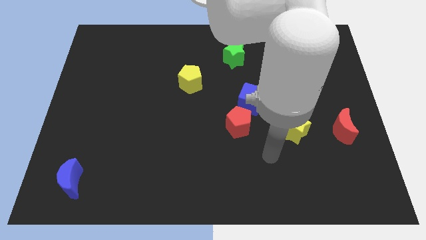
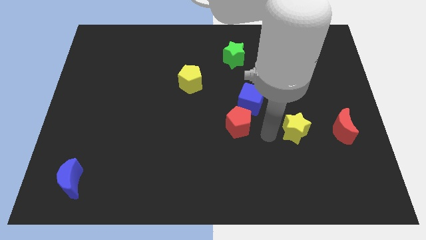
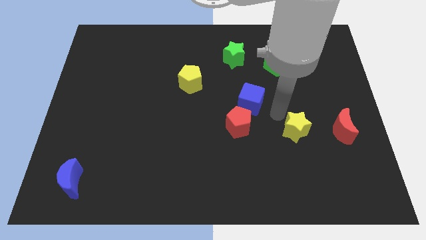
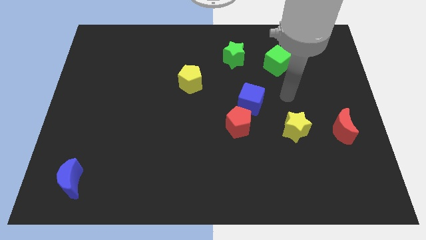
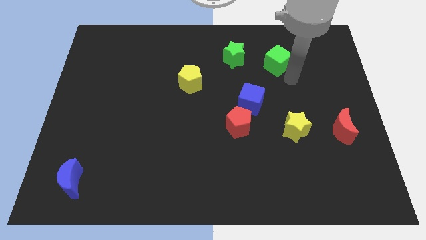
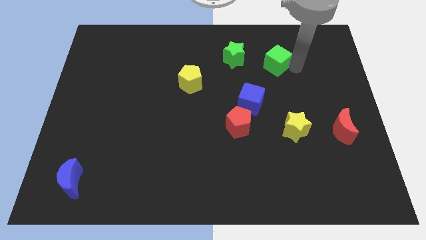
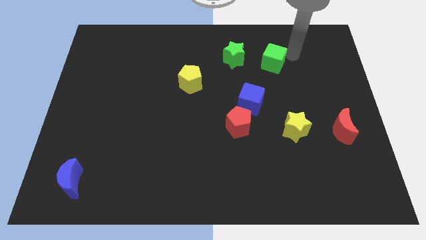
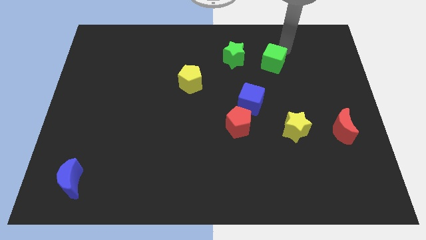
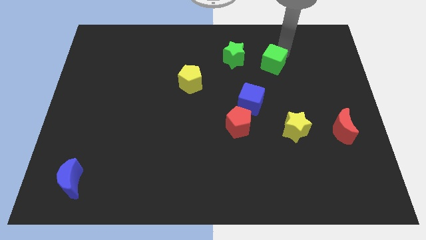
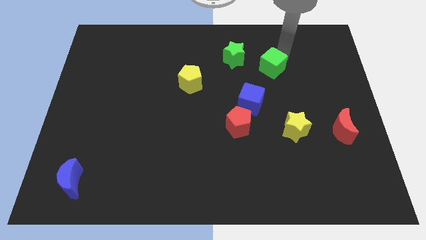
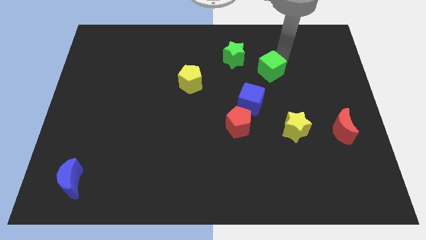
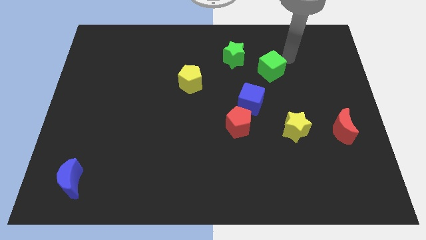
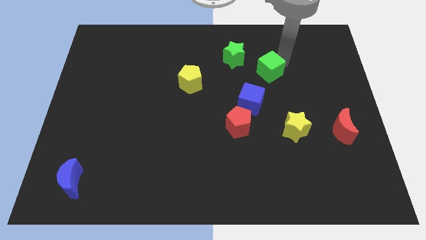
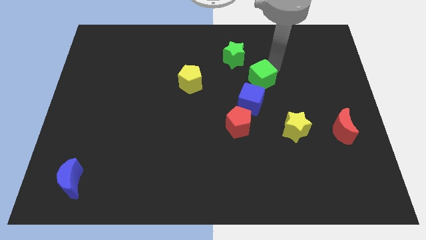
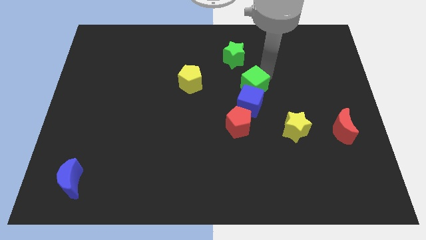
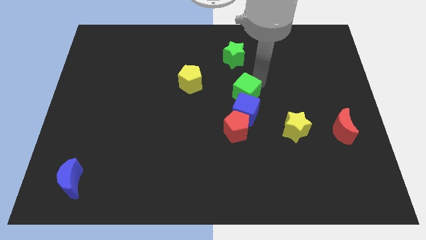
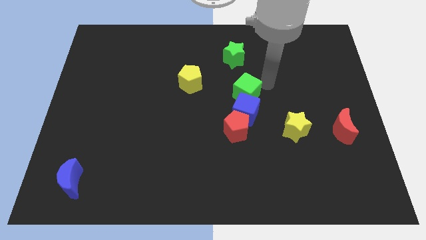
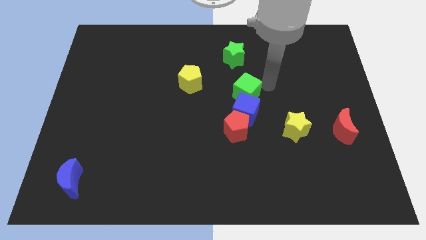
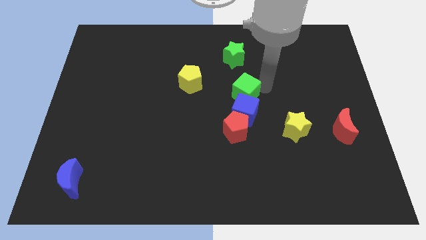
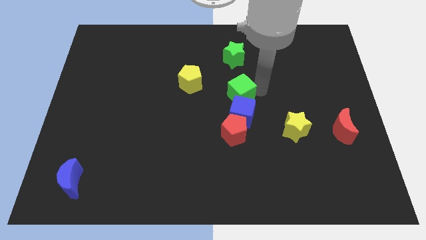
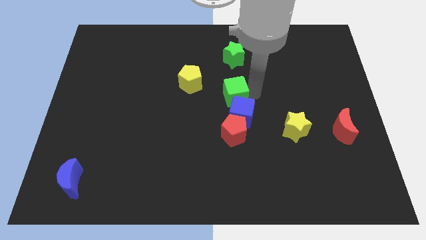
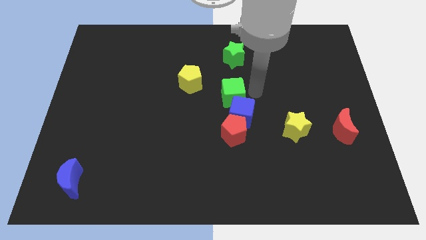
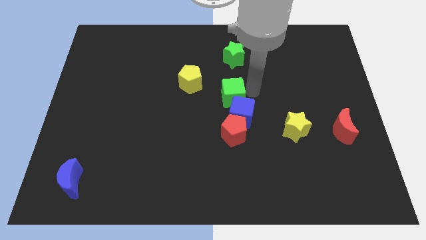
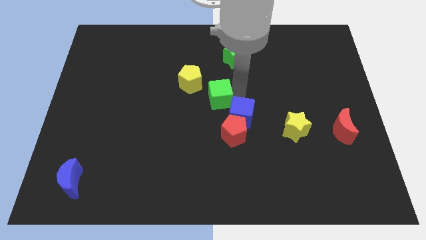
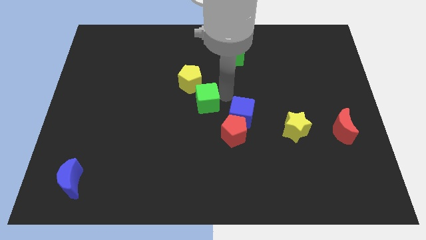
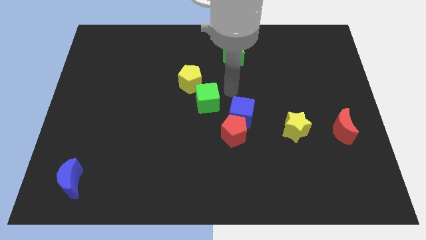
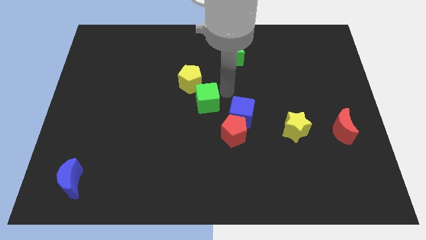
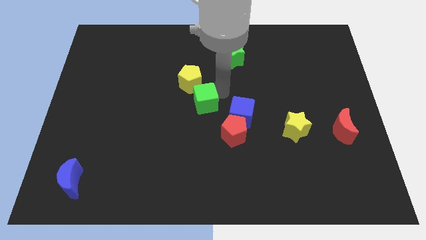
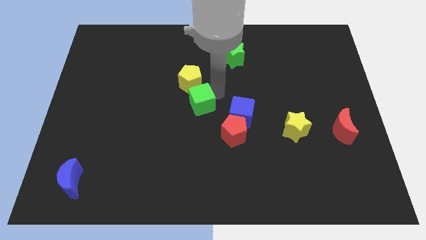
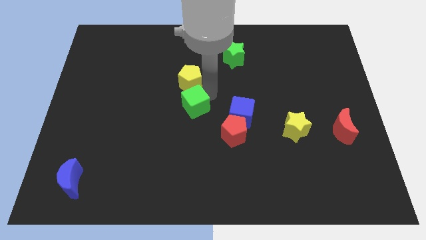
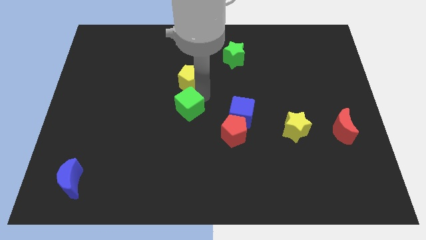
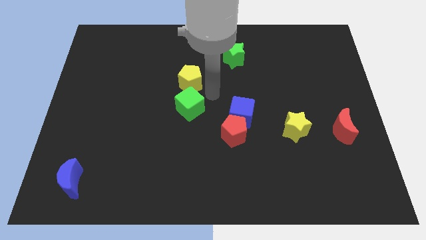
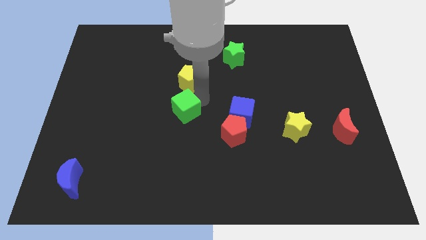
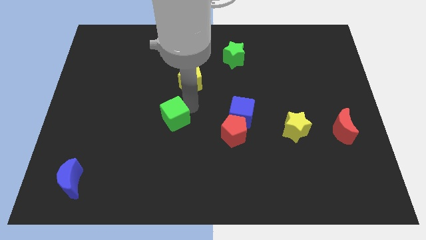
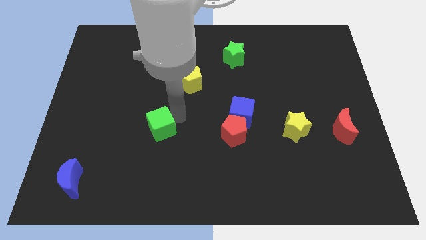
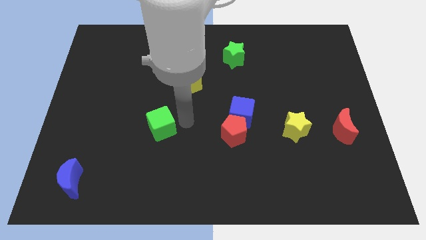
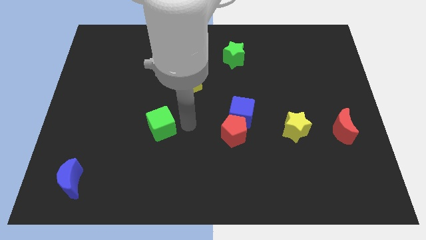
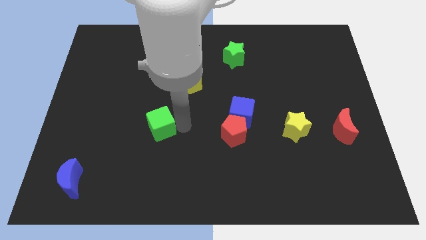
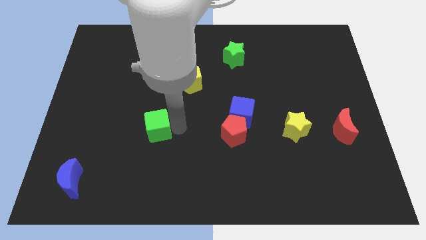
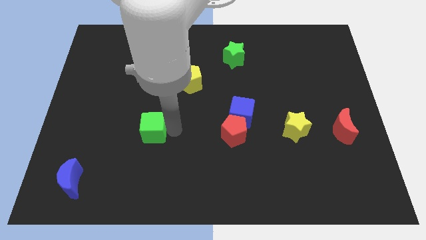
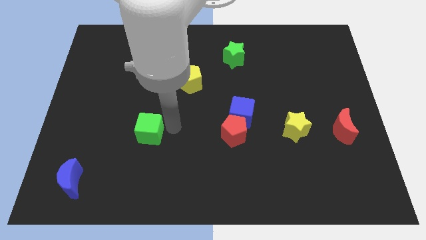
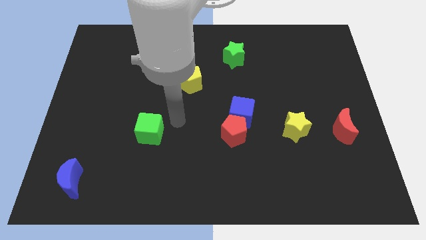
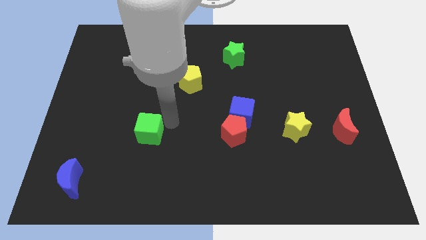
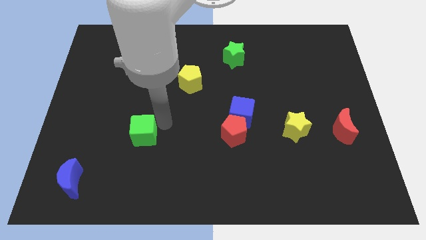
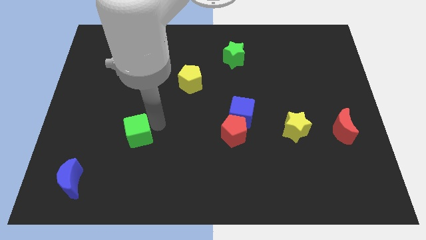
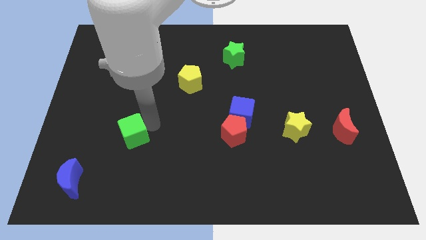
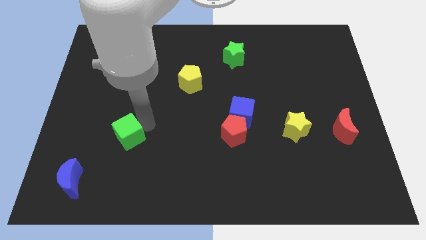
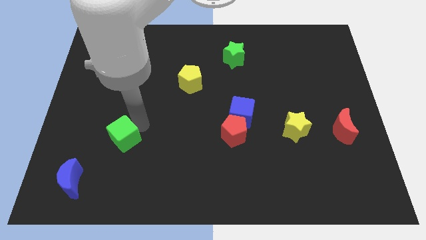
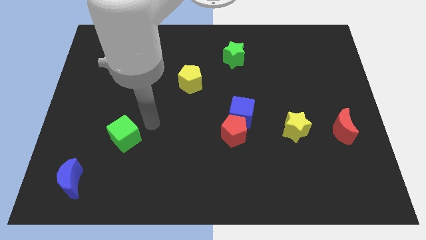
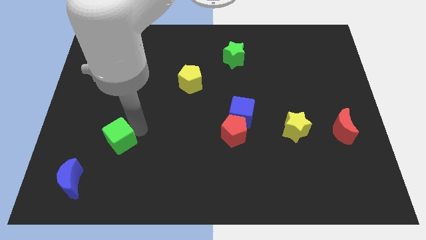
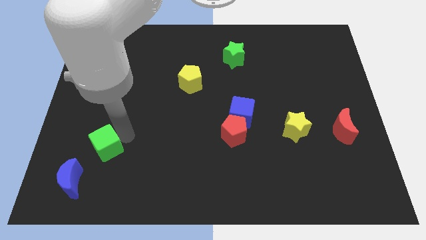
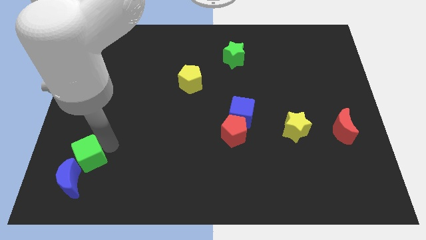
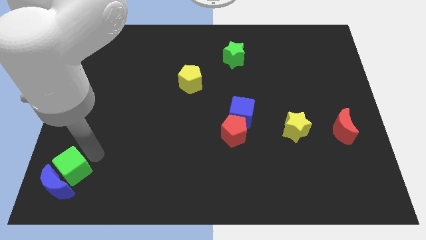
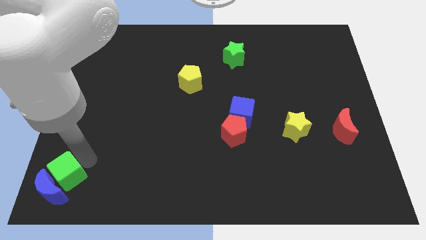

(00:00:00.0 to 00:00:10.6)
push the green cube to the lower left corner

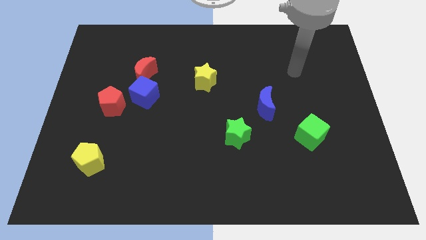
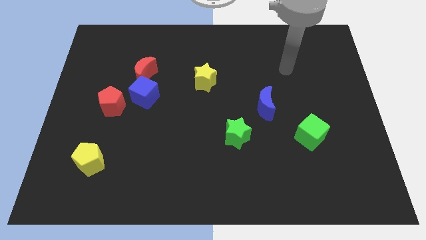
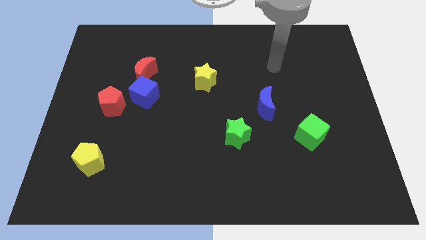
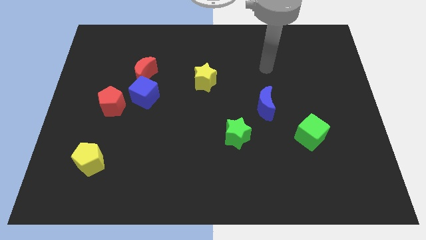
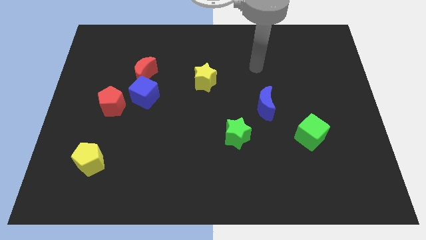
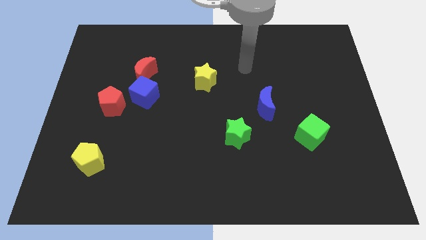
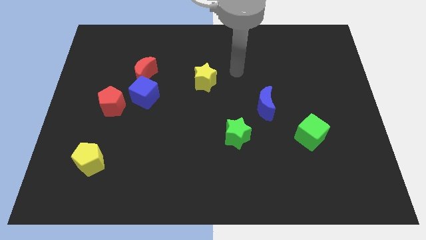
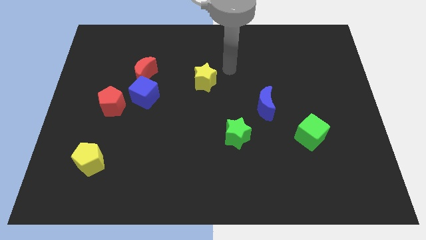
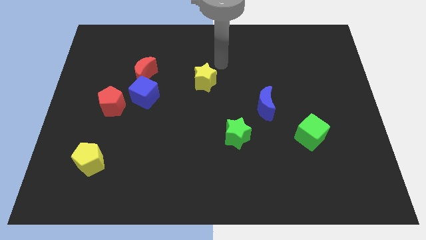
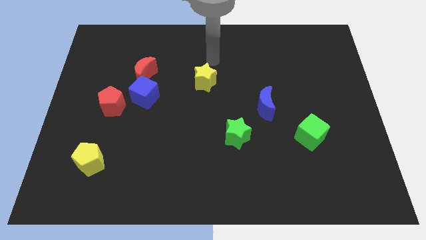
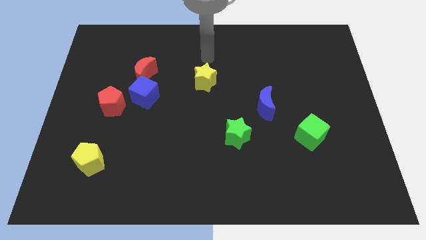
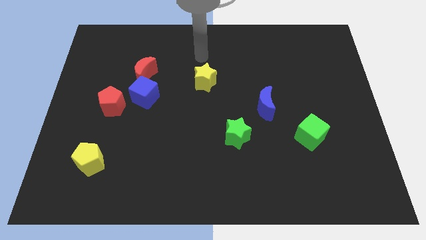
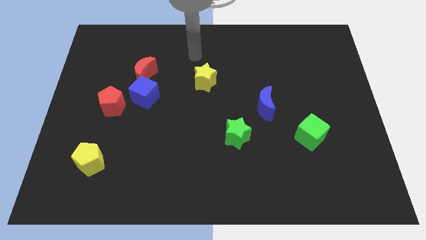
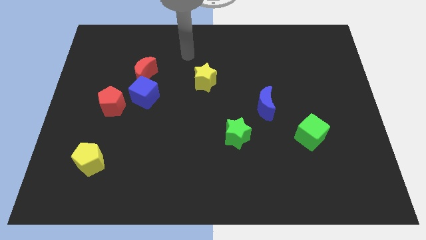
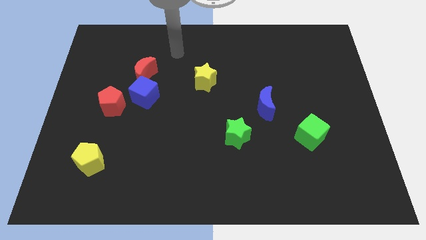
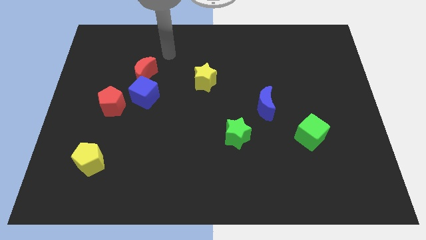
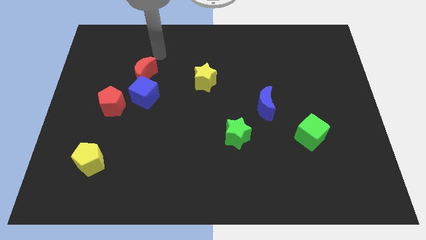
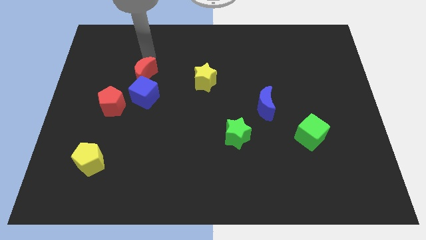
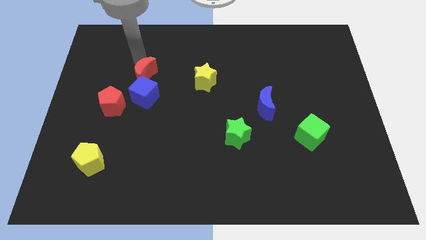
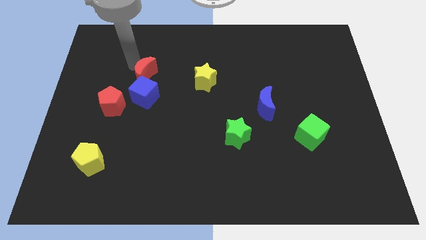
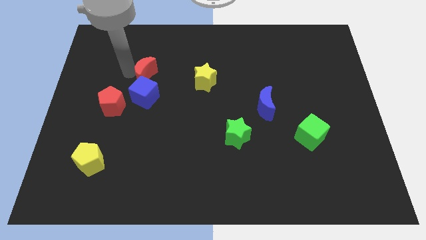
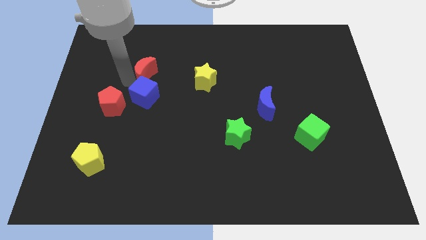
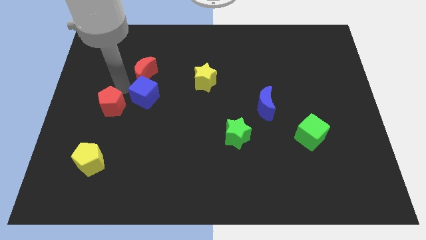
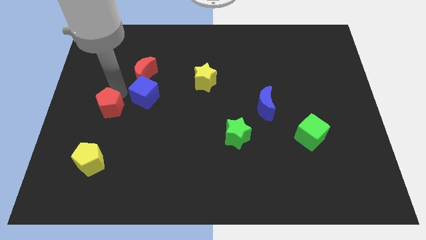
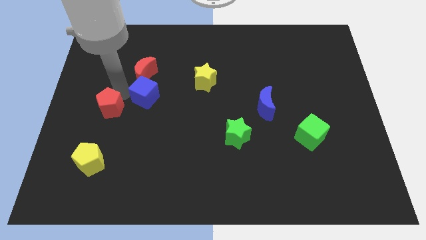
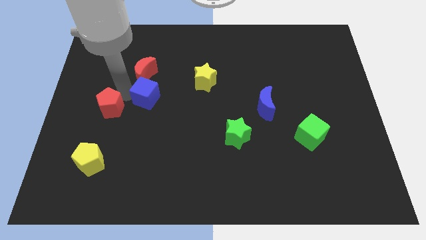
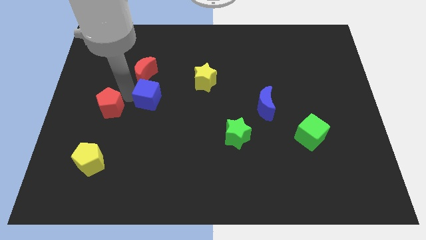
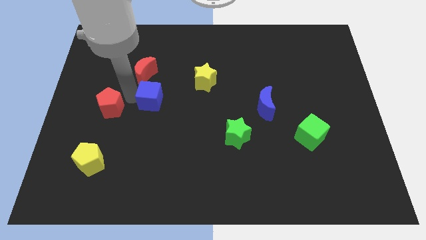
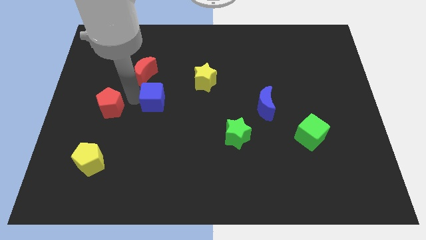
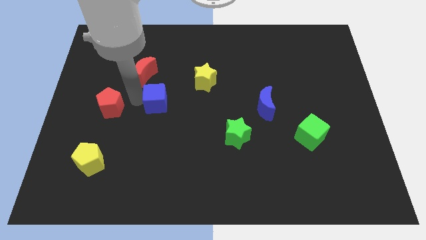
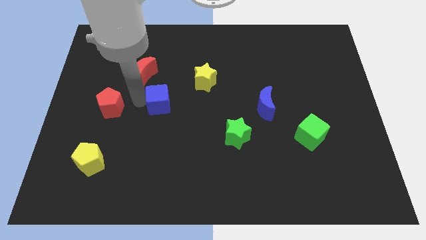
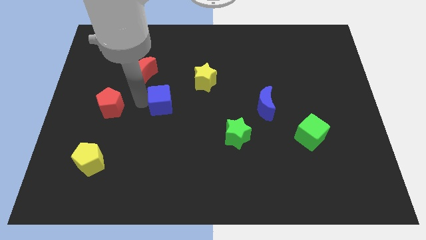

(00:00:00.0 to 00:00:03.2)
push the blue cube to the center of the board
